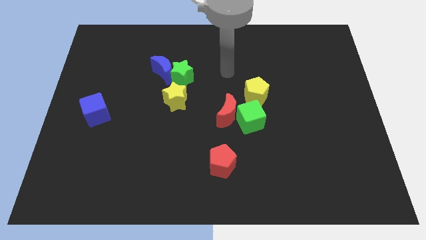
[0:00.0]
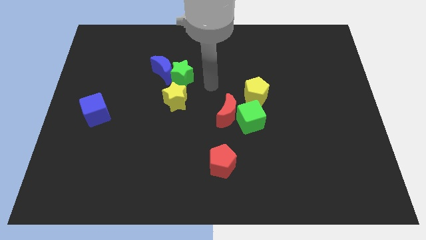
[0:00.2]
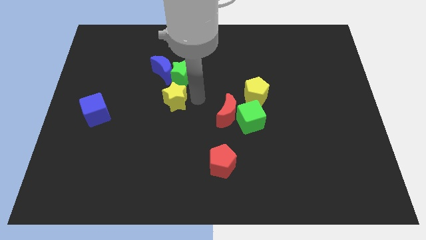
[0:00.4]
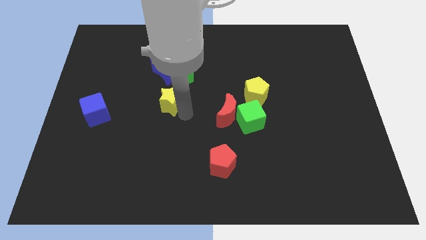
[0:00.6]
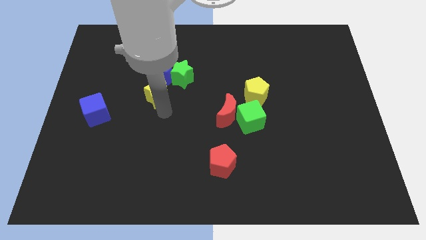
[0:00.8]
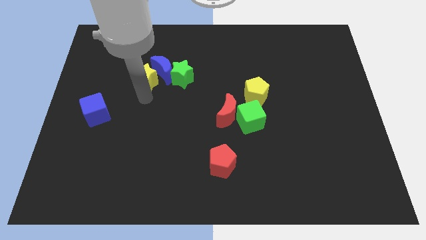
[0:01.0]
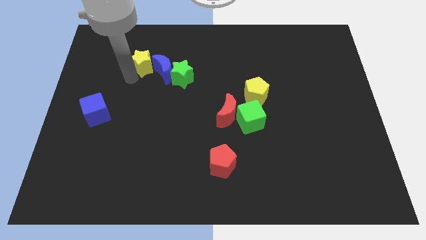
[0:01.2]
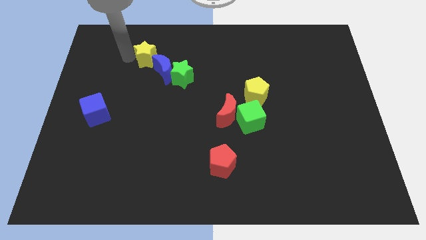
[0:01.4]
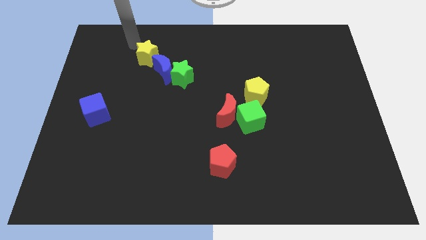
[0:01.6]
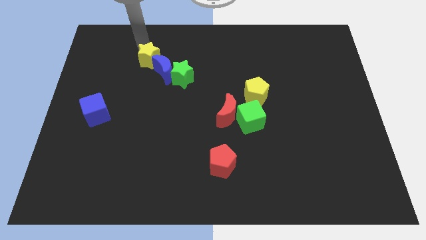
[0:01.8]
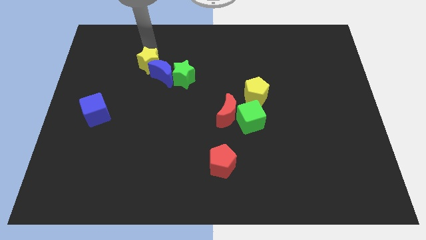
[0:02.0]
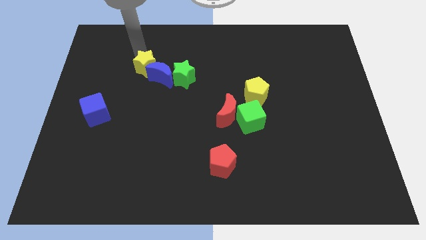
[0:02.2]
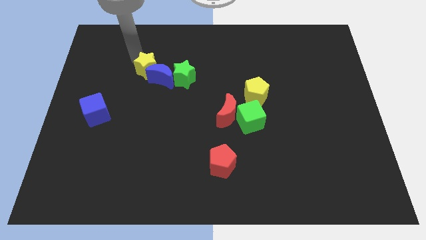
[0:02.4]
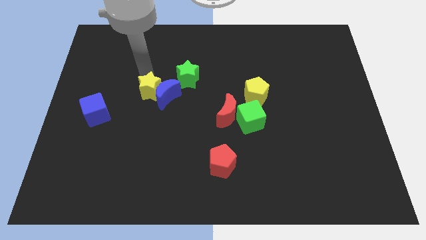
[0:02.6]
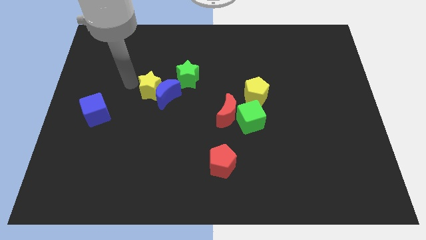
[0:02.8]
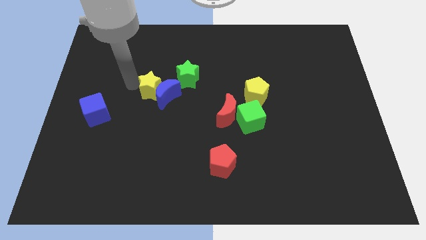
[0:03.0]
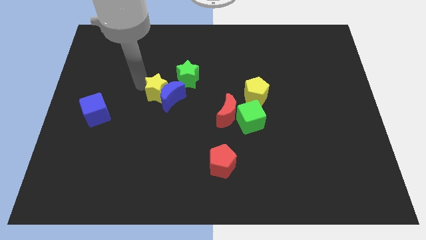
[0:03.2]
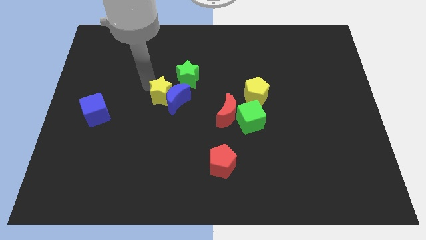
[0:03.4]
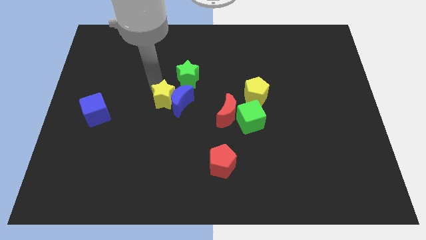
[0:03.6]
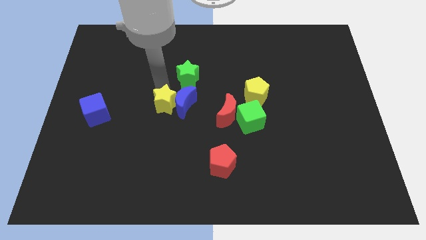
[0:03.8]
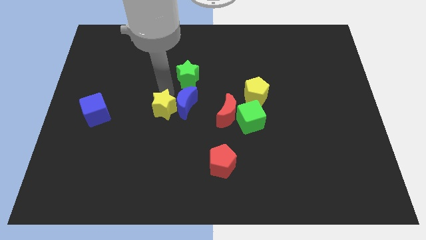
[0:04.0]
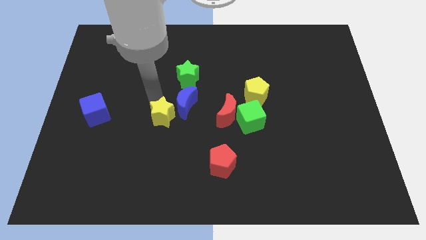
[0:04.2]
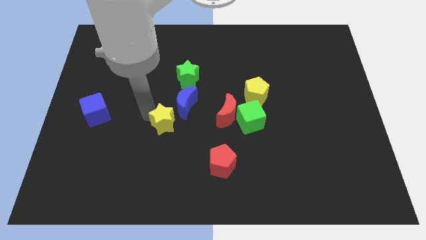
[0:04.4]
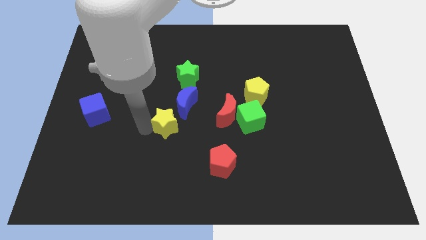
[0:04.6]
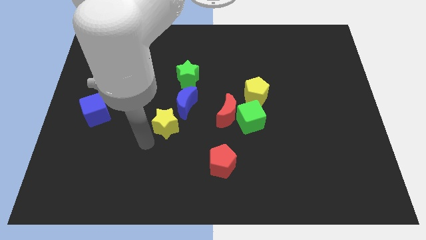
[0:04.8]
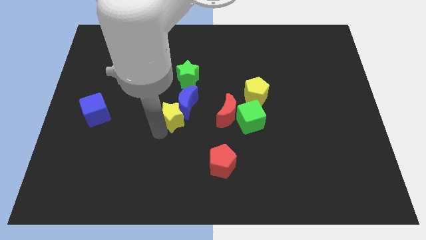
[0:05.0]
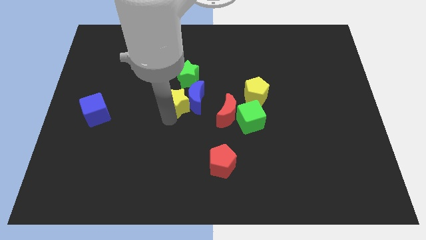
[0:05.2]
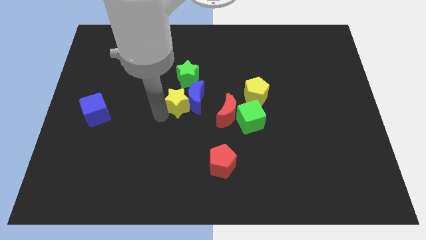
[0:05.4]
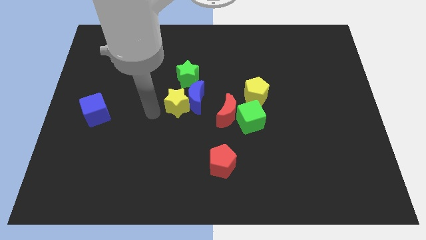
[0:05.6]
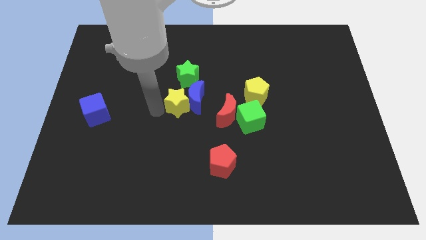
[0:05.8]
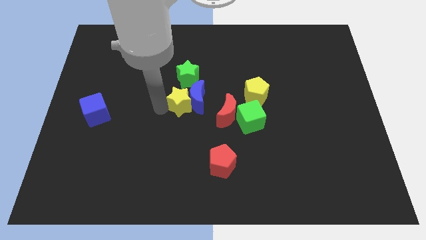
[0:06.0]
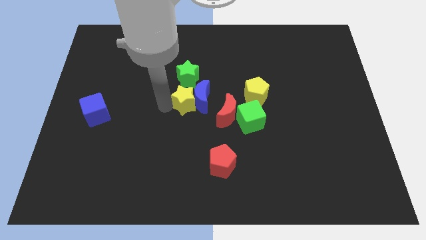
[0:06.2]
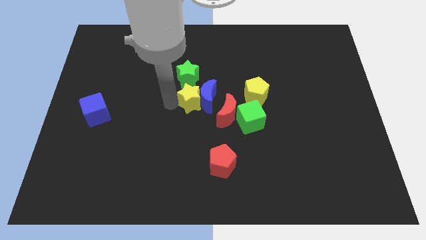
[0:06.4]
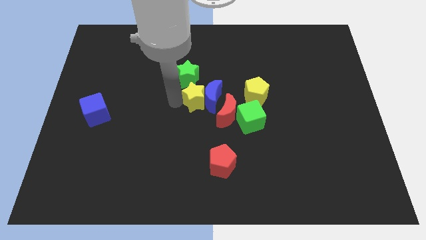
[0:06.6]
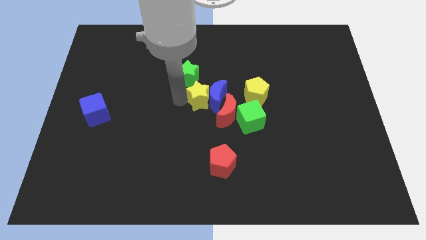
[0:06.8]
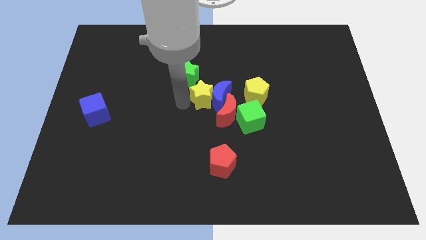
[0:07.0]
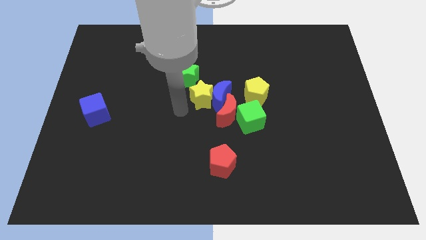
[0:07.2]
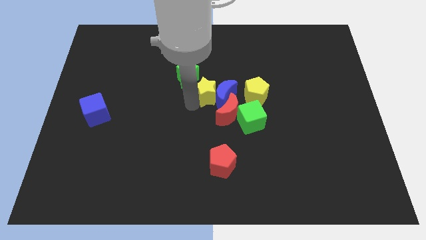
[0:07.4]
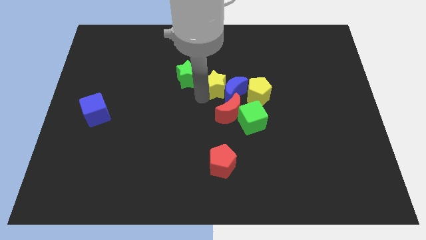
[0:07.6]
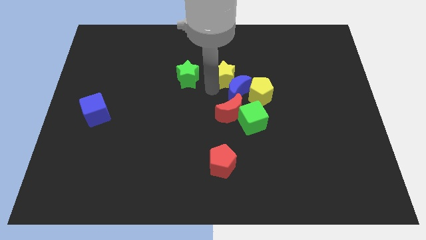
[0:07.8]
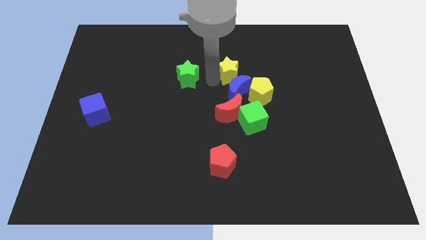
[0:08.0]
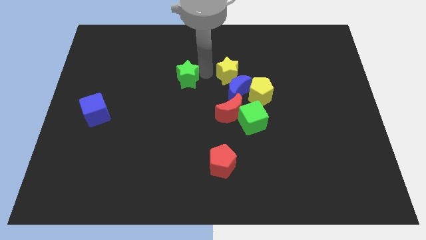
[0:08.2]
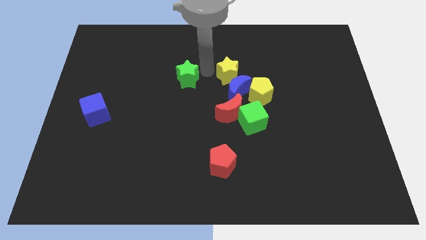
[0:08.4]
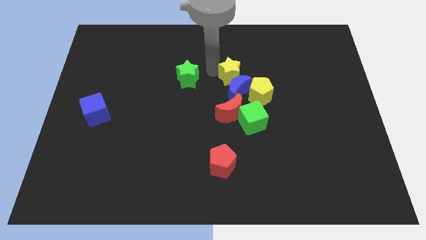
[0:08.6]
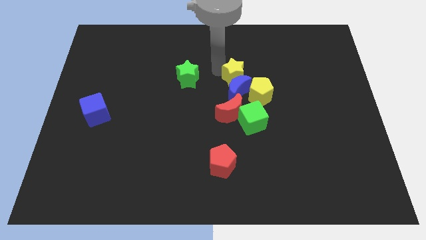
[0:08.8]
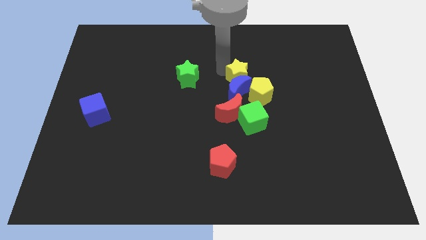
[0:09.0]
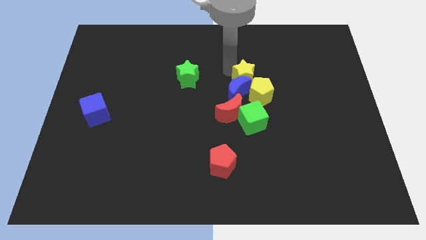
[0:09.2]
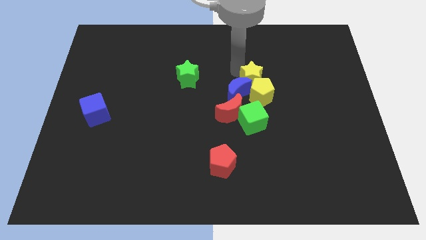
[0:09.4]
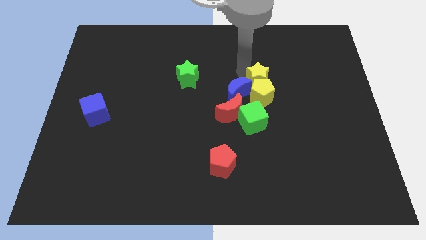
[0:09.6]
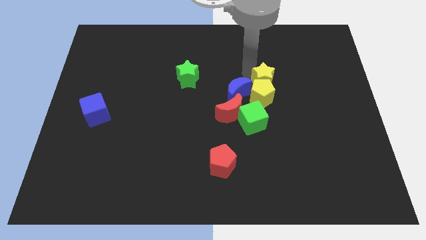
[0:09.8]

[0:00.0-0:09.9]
move the yellow star to the right

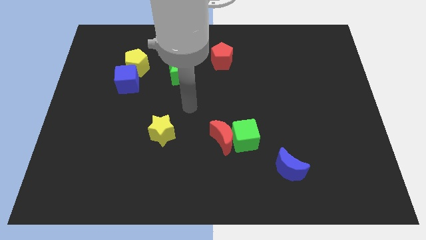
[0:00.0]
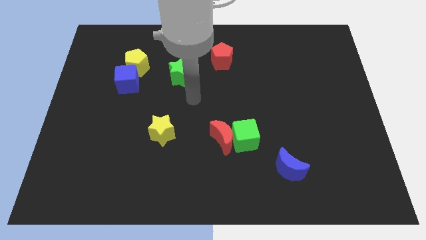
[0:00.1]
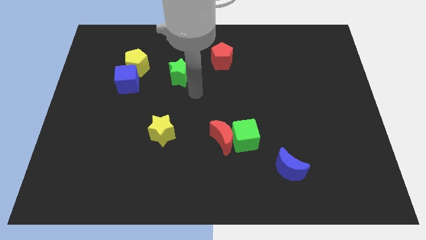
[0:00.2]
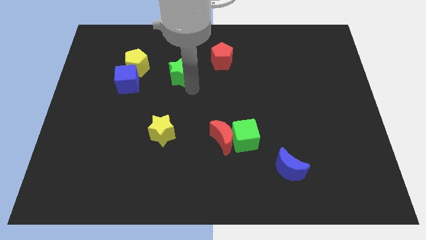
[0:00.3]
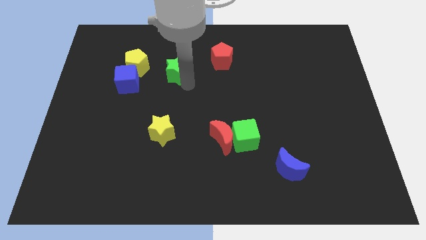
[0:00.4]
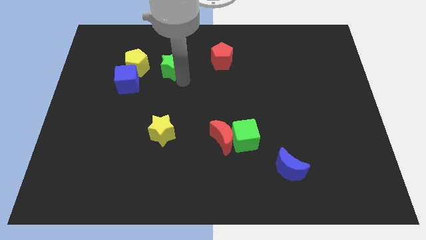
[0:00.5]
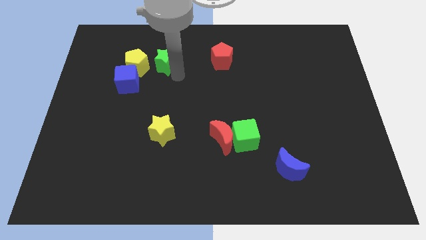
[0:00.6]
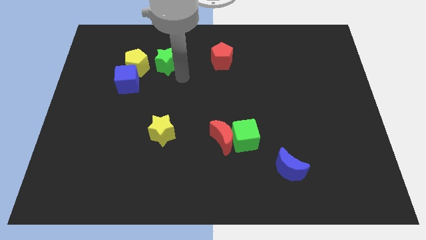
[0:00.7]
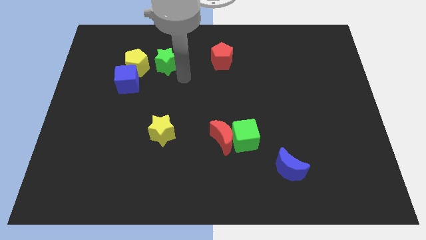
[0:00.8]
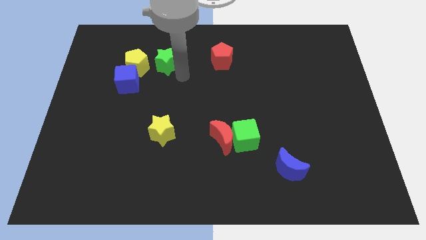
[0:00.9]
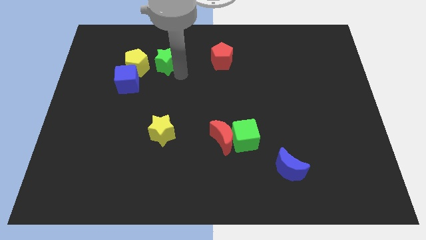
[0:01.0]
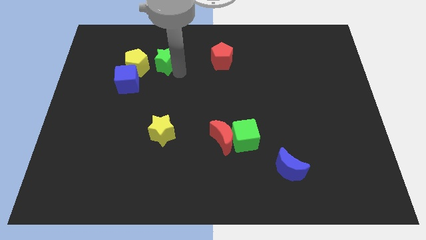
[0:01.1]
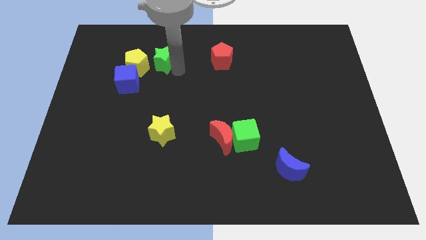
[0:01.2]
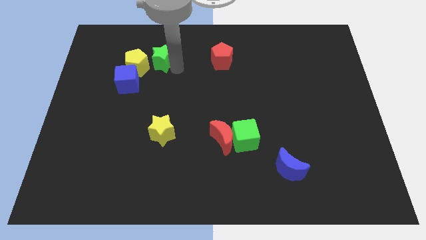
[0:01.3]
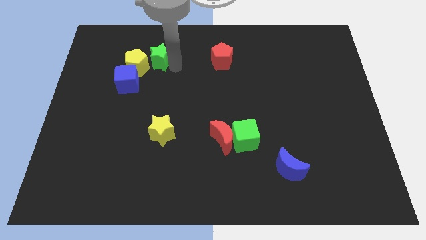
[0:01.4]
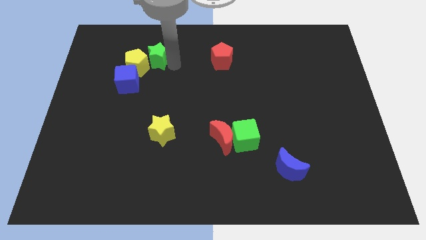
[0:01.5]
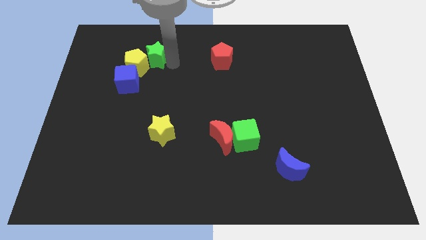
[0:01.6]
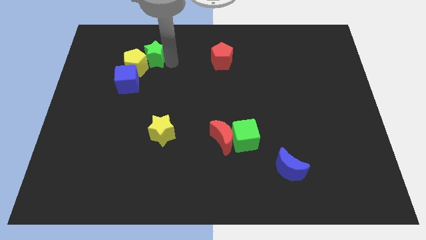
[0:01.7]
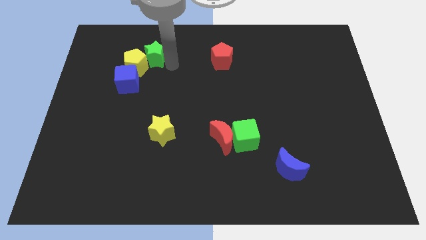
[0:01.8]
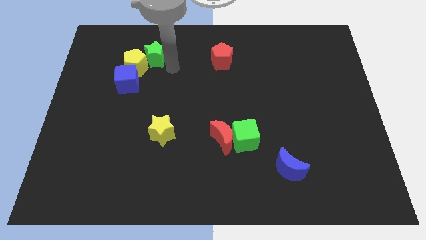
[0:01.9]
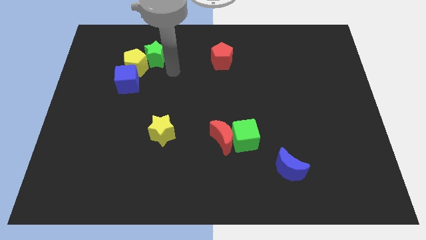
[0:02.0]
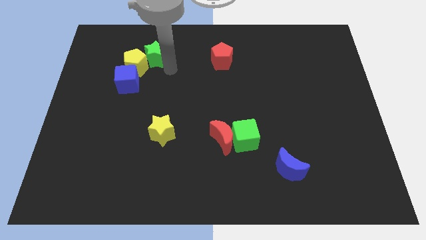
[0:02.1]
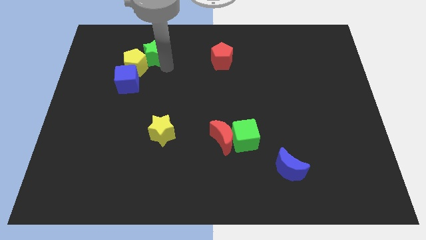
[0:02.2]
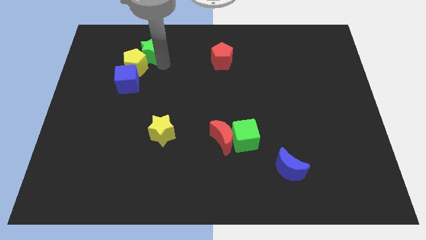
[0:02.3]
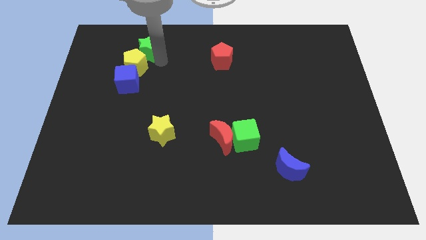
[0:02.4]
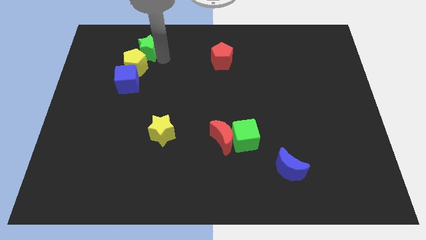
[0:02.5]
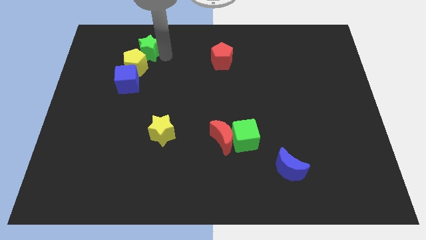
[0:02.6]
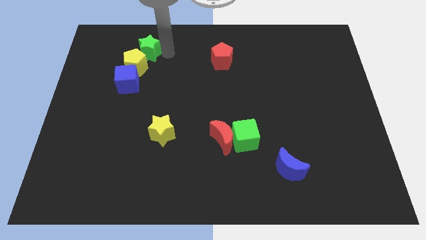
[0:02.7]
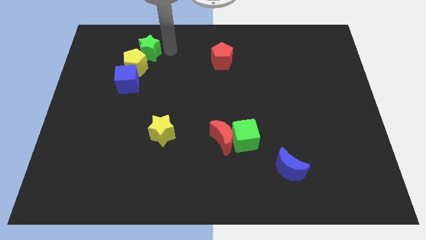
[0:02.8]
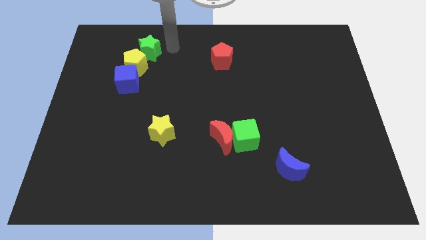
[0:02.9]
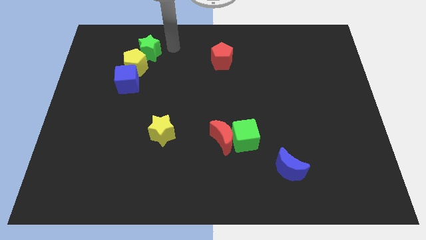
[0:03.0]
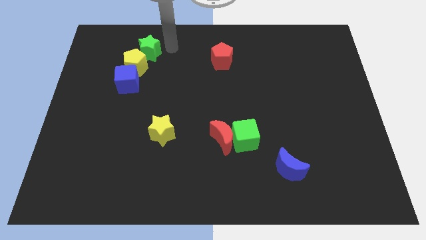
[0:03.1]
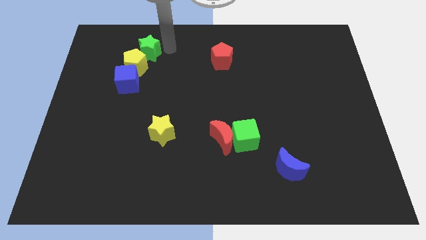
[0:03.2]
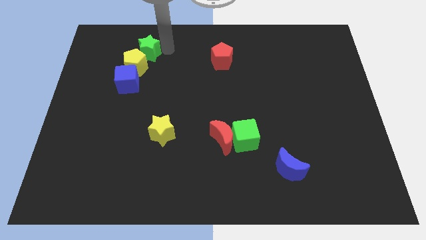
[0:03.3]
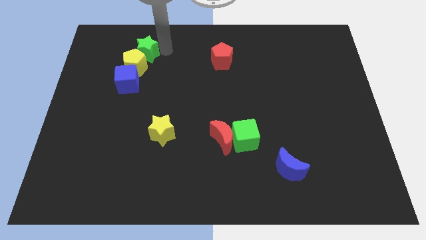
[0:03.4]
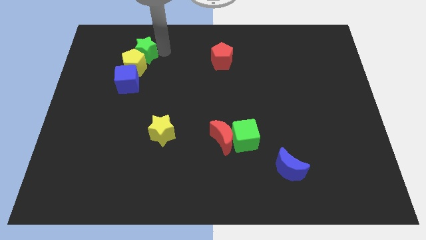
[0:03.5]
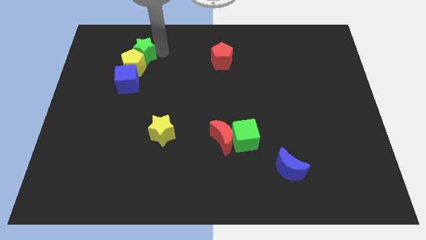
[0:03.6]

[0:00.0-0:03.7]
slightly move the green star left
